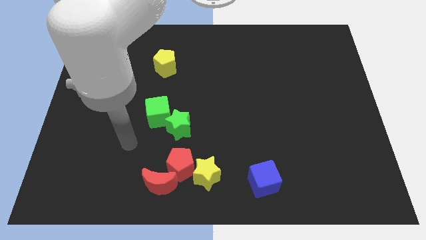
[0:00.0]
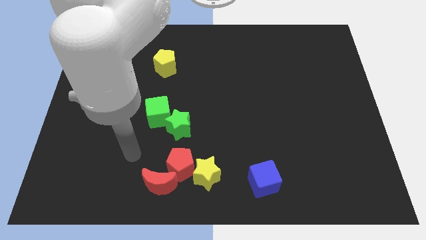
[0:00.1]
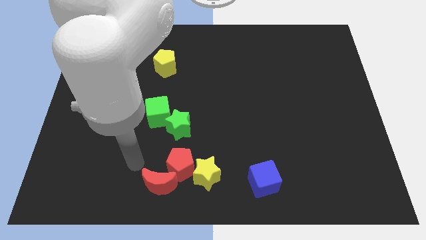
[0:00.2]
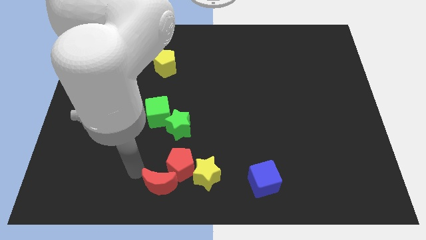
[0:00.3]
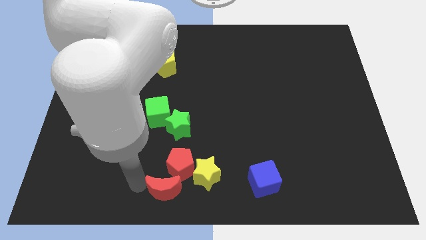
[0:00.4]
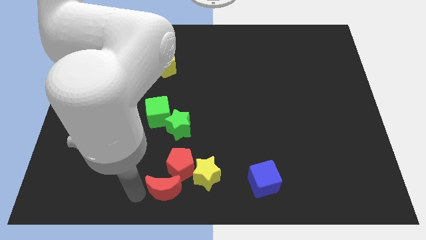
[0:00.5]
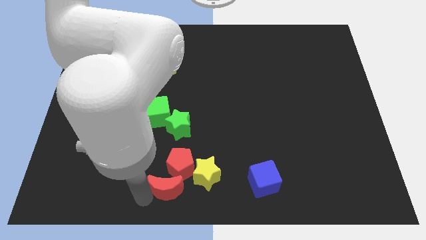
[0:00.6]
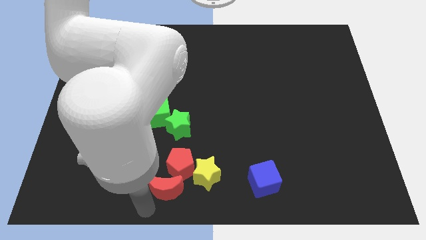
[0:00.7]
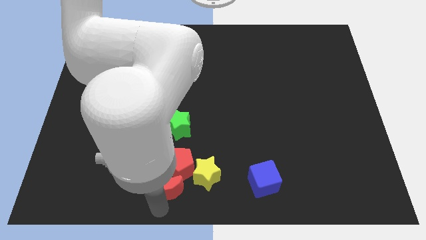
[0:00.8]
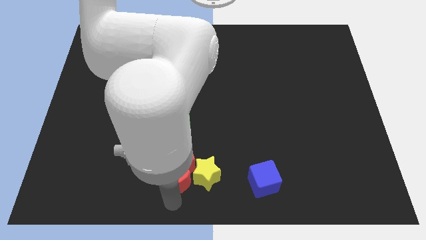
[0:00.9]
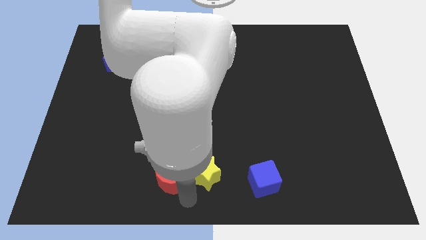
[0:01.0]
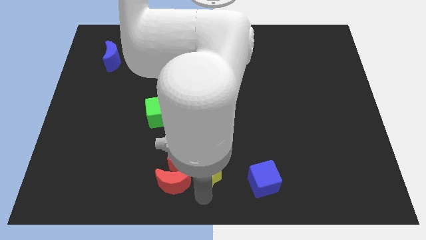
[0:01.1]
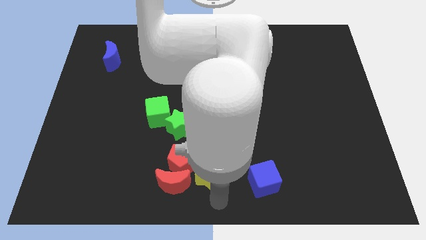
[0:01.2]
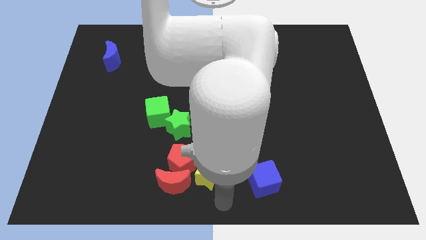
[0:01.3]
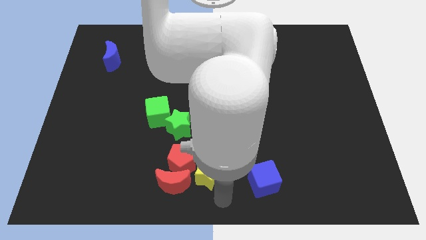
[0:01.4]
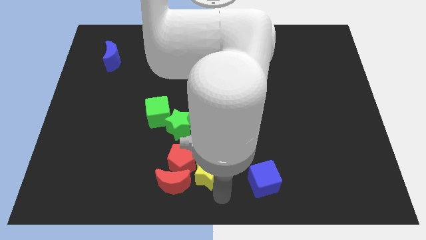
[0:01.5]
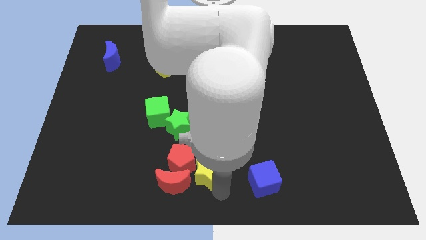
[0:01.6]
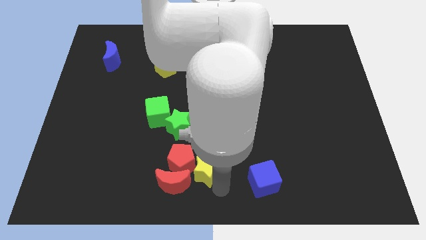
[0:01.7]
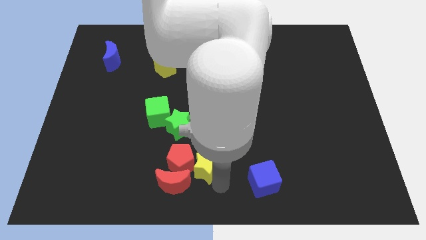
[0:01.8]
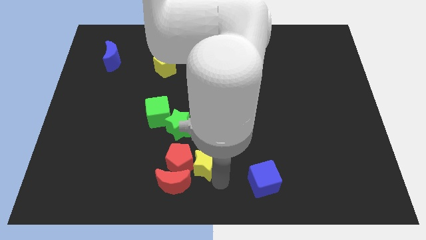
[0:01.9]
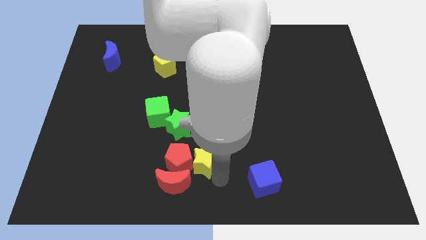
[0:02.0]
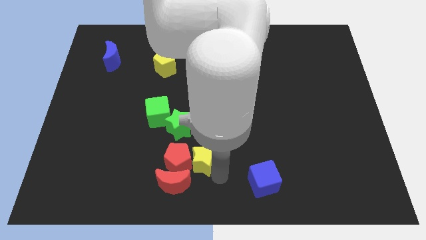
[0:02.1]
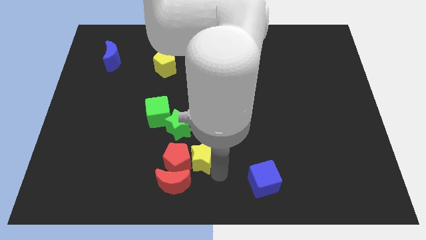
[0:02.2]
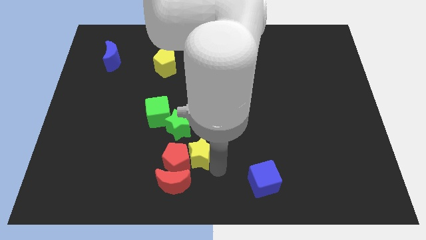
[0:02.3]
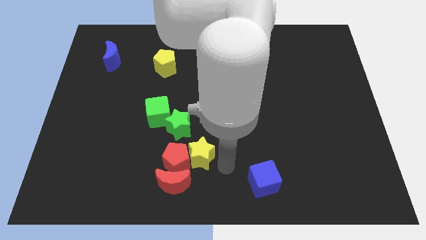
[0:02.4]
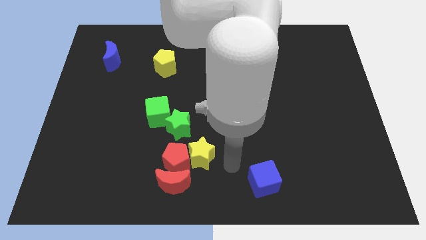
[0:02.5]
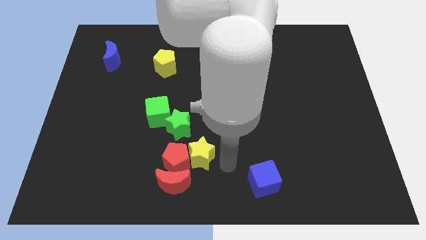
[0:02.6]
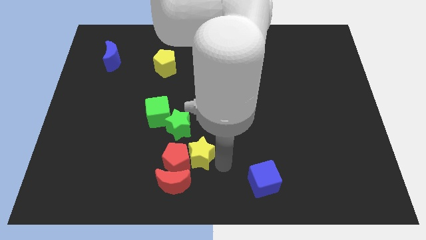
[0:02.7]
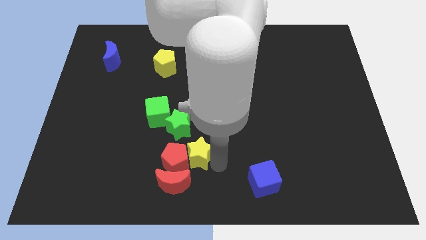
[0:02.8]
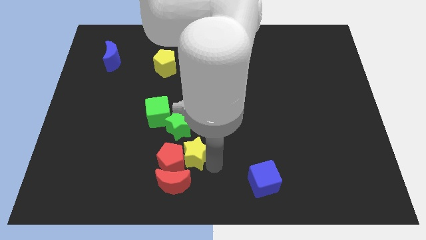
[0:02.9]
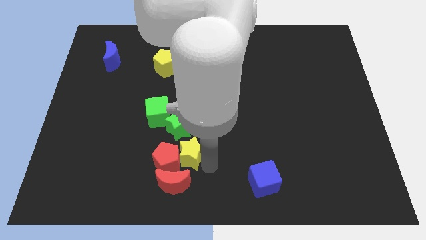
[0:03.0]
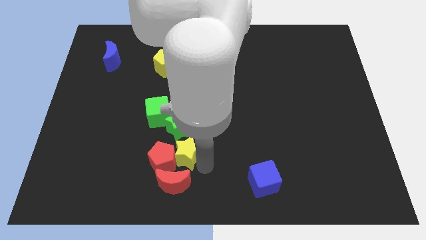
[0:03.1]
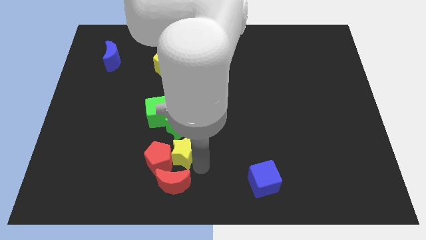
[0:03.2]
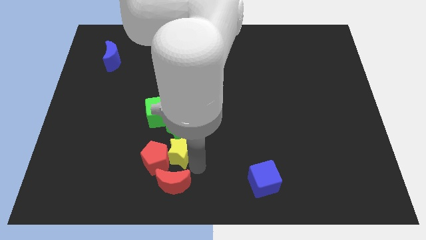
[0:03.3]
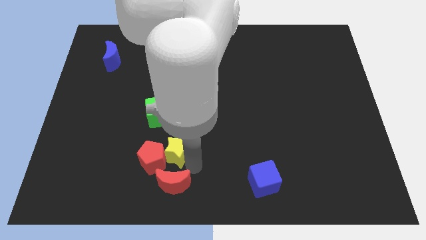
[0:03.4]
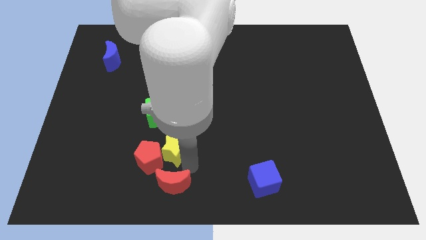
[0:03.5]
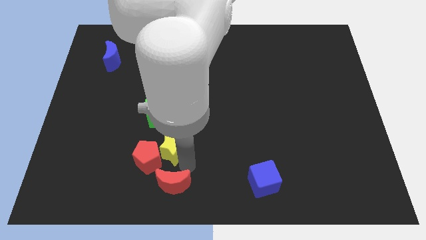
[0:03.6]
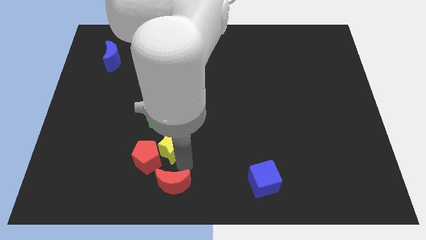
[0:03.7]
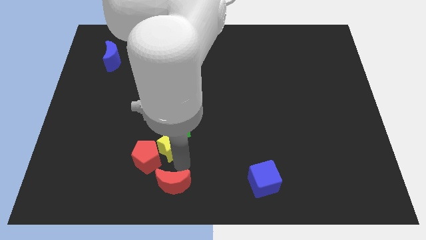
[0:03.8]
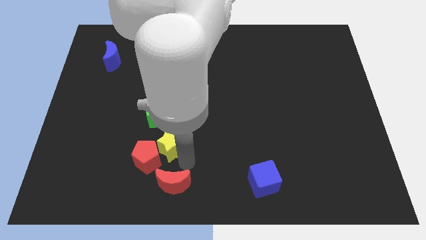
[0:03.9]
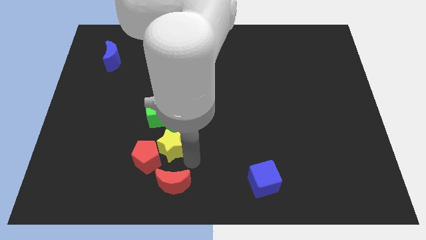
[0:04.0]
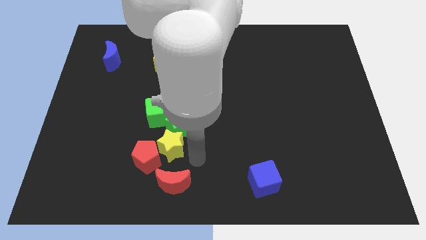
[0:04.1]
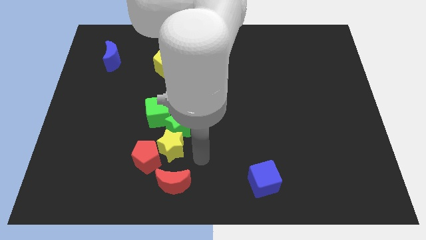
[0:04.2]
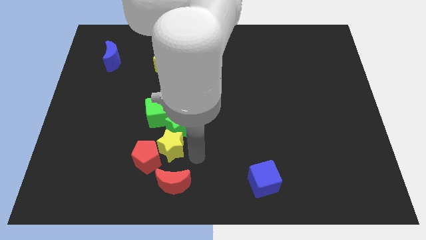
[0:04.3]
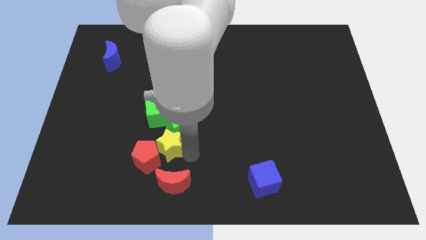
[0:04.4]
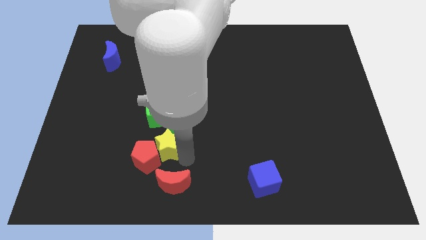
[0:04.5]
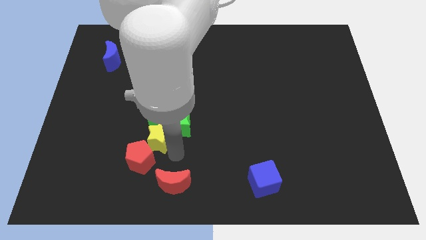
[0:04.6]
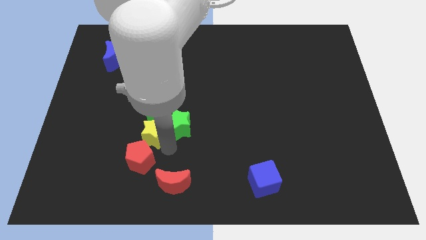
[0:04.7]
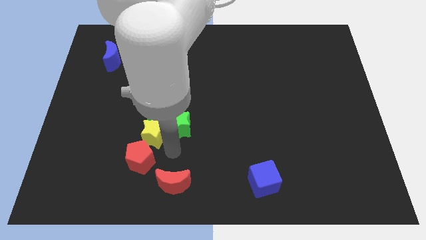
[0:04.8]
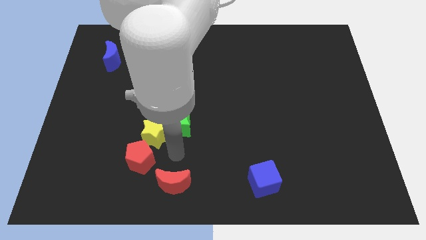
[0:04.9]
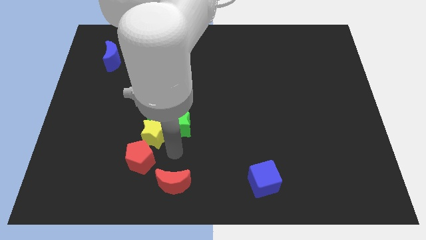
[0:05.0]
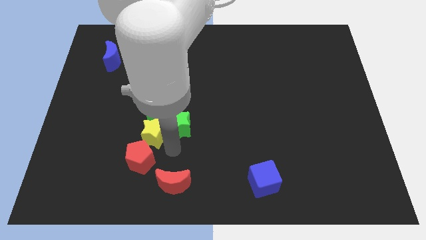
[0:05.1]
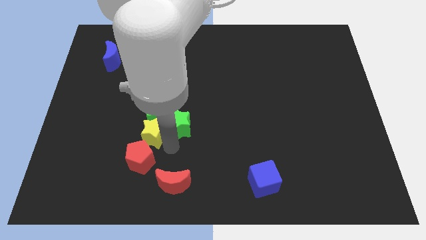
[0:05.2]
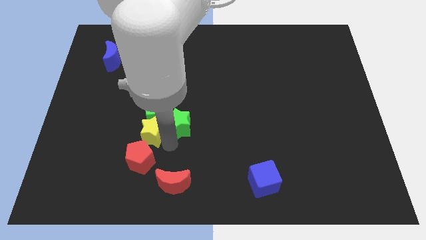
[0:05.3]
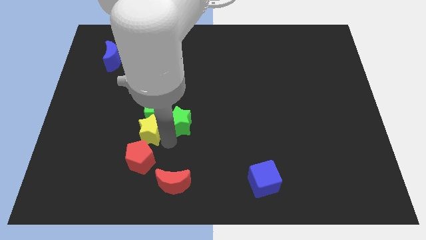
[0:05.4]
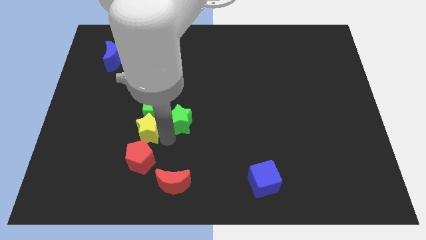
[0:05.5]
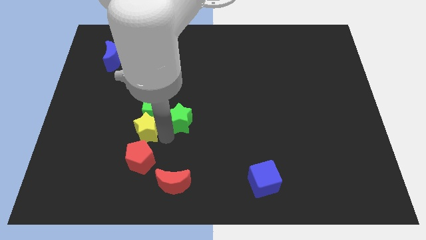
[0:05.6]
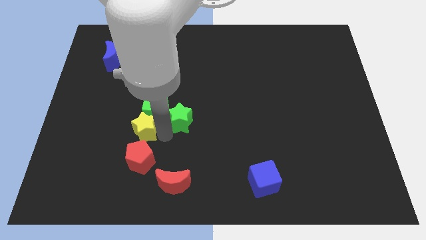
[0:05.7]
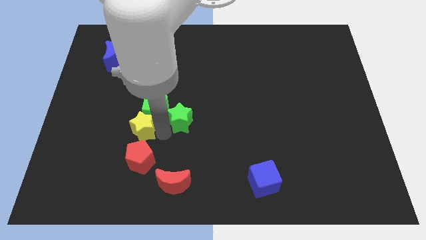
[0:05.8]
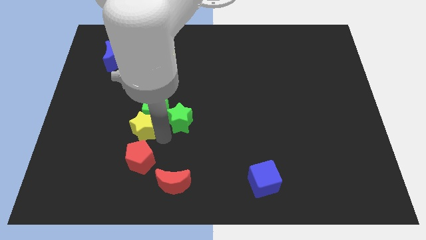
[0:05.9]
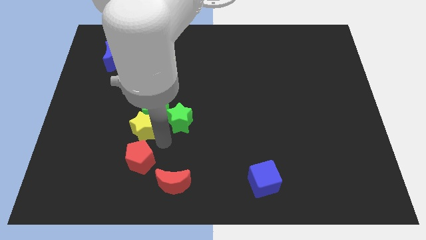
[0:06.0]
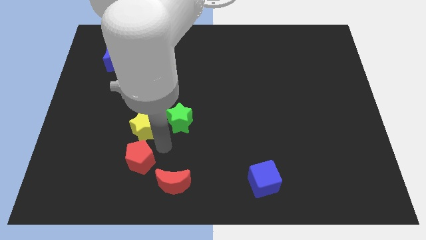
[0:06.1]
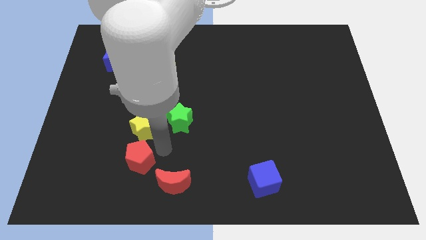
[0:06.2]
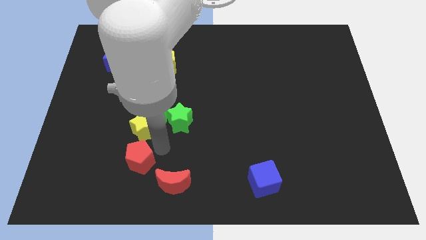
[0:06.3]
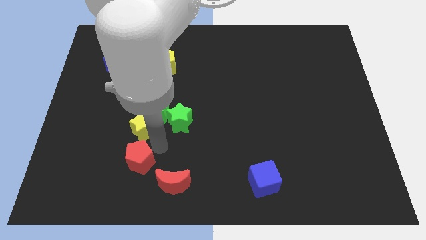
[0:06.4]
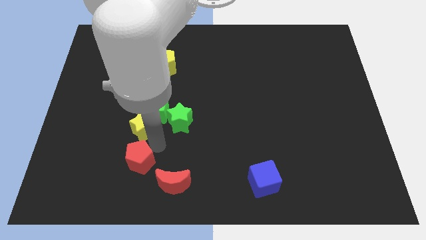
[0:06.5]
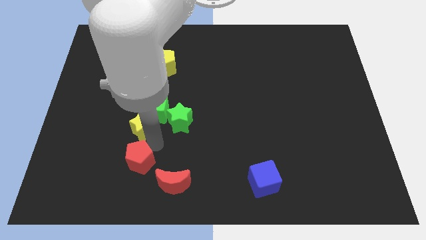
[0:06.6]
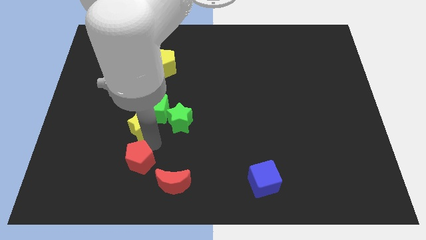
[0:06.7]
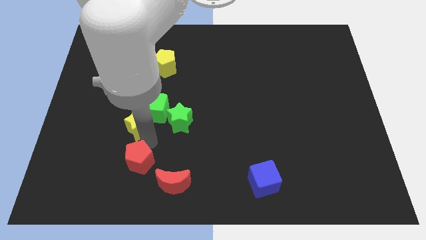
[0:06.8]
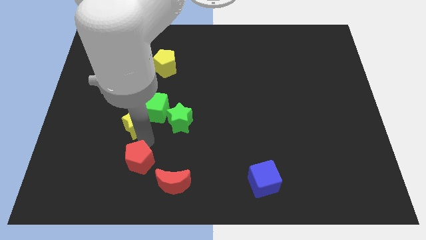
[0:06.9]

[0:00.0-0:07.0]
push the yellow star upwards and to the left

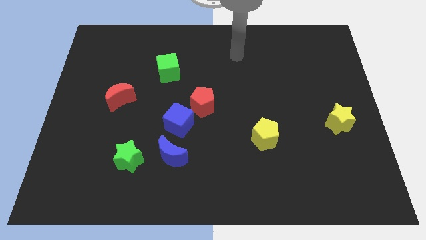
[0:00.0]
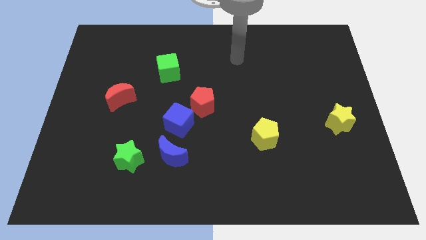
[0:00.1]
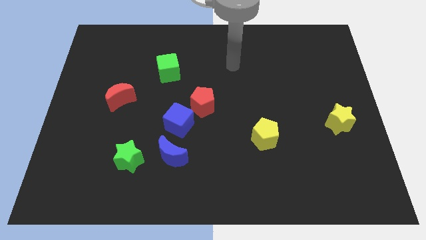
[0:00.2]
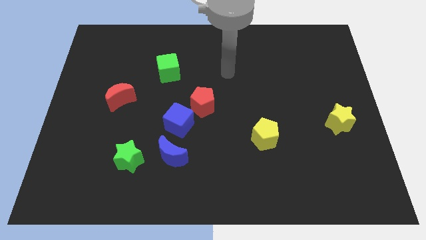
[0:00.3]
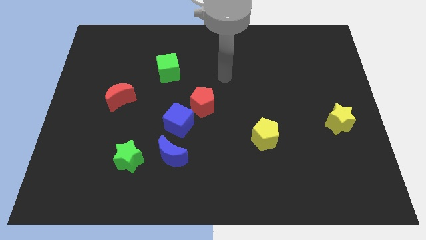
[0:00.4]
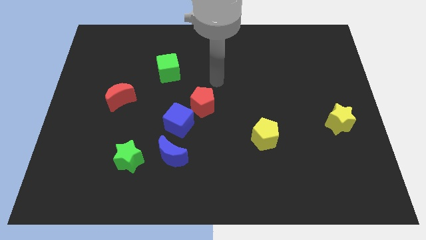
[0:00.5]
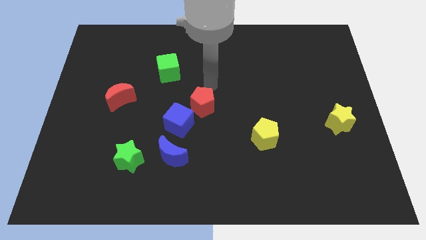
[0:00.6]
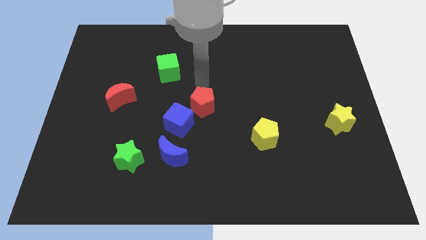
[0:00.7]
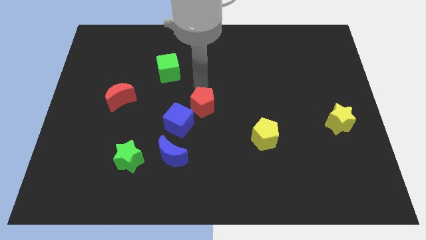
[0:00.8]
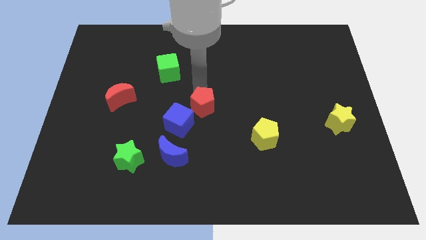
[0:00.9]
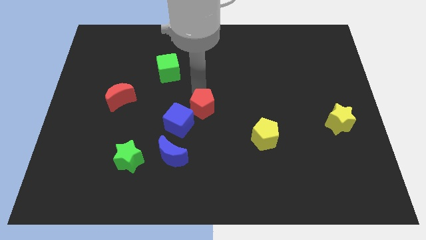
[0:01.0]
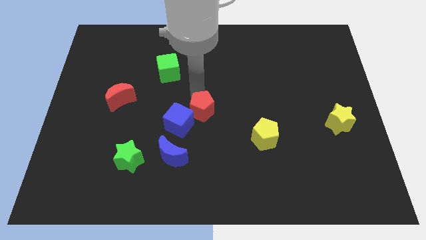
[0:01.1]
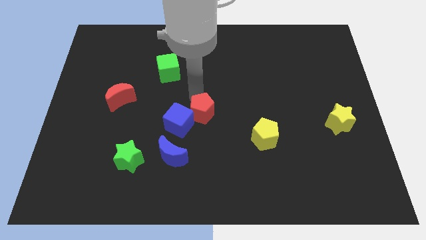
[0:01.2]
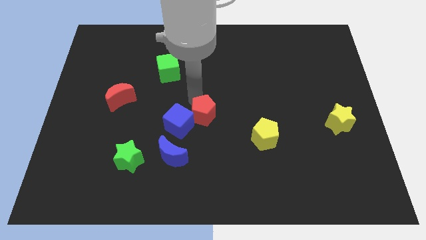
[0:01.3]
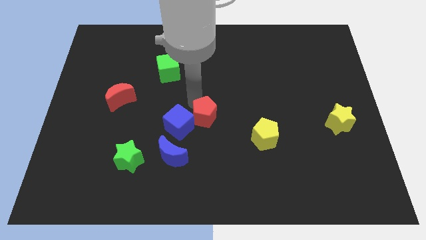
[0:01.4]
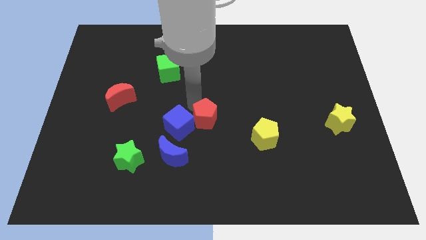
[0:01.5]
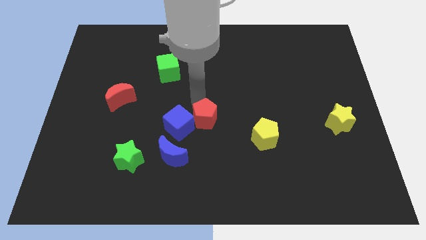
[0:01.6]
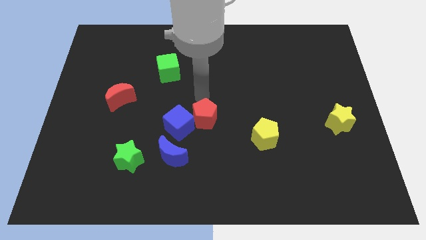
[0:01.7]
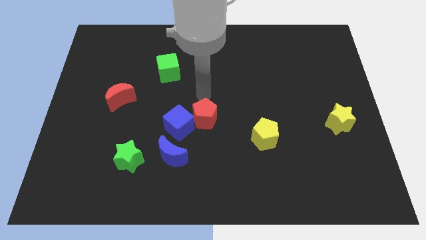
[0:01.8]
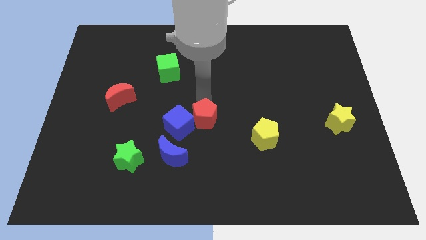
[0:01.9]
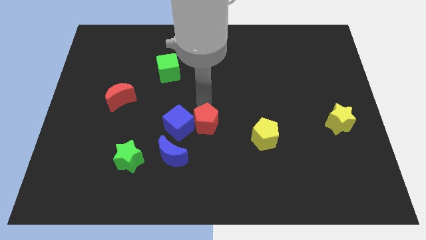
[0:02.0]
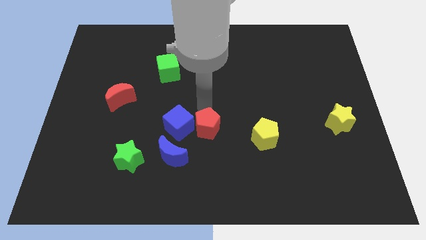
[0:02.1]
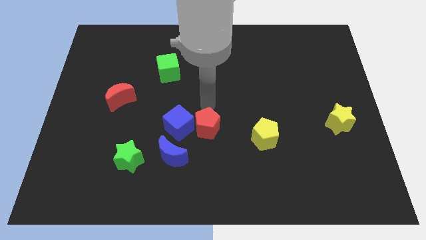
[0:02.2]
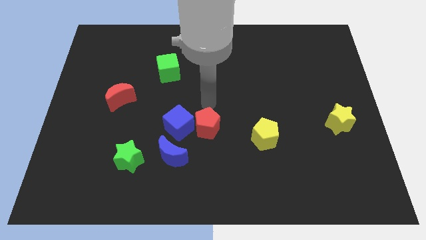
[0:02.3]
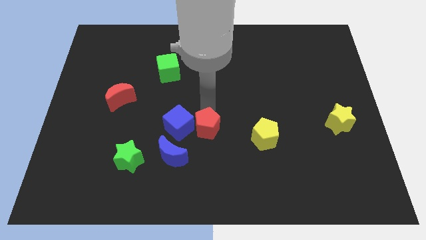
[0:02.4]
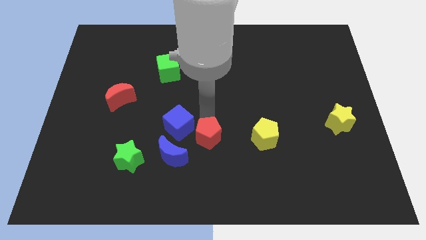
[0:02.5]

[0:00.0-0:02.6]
slide the red pentagon downwards a little
